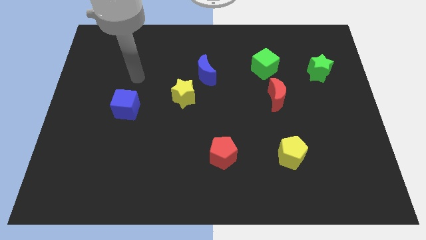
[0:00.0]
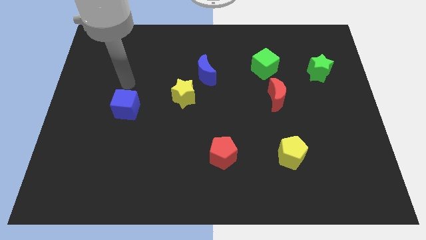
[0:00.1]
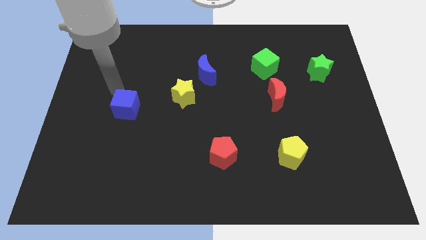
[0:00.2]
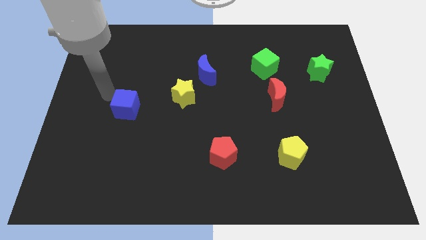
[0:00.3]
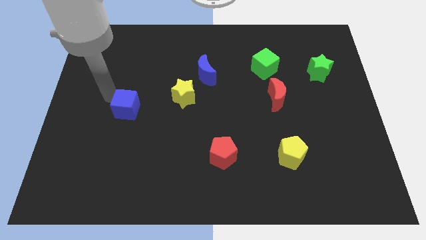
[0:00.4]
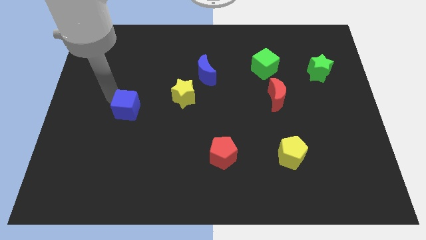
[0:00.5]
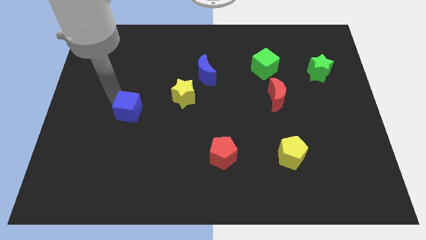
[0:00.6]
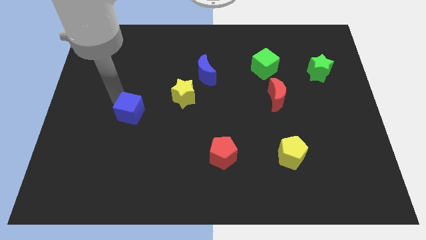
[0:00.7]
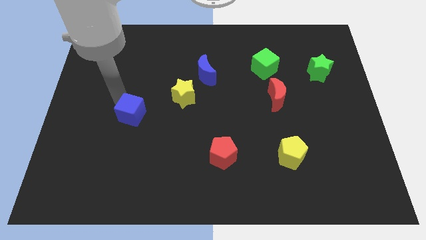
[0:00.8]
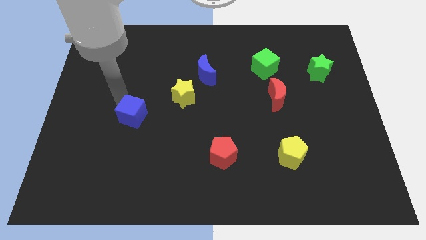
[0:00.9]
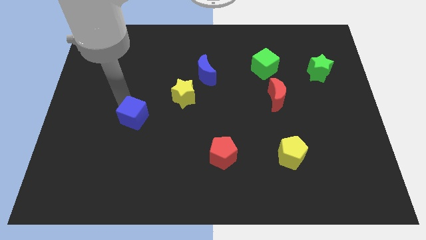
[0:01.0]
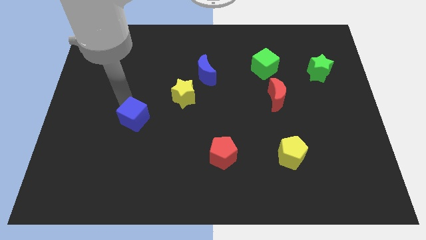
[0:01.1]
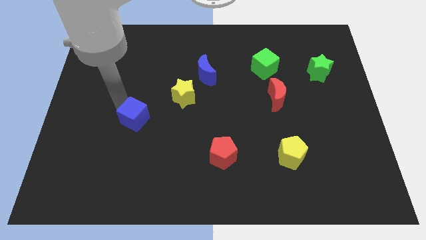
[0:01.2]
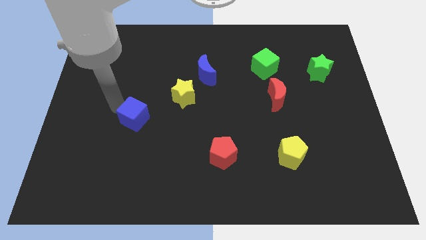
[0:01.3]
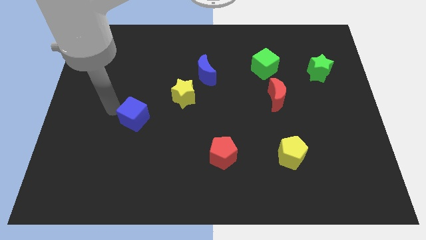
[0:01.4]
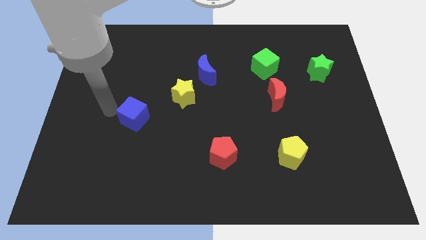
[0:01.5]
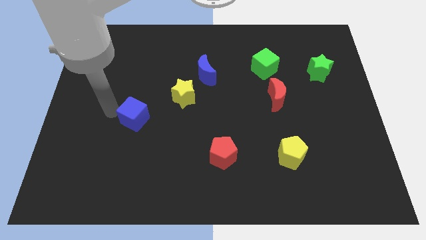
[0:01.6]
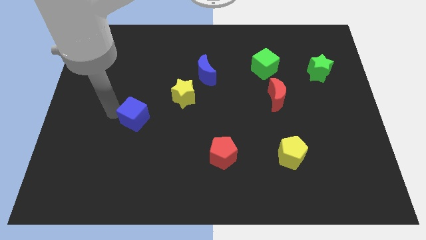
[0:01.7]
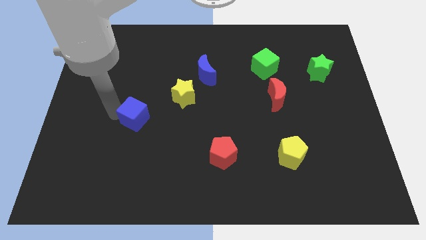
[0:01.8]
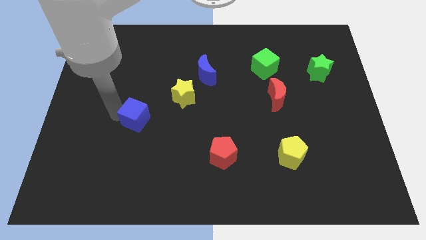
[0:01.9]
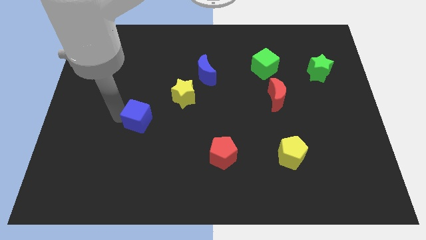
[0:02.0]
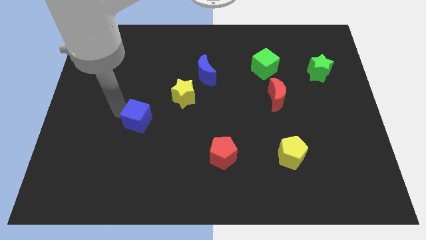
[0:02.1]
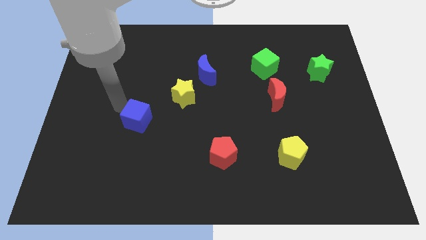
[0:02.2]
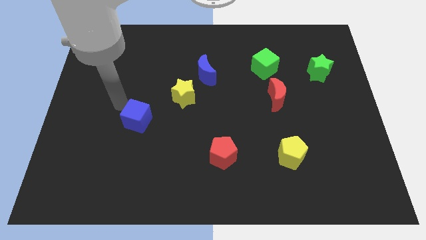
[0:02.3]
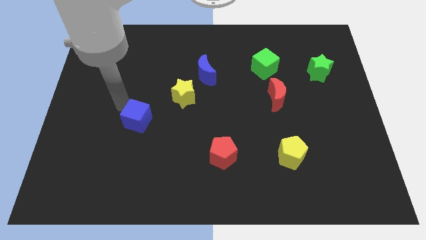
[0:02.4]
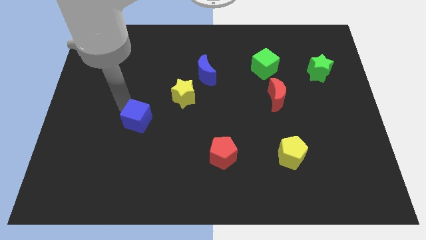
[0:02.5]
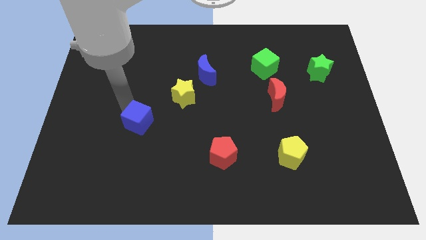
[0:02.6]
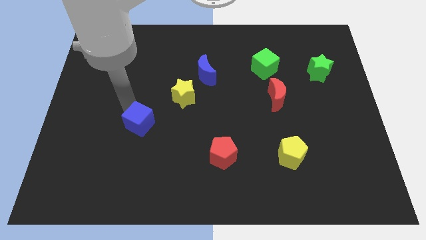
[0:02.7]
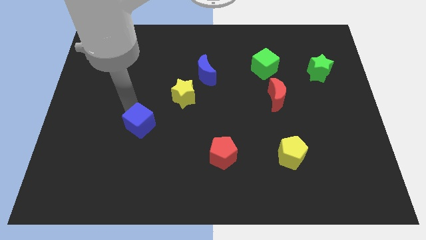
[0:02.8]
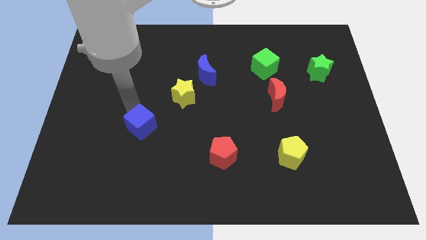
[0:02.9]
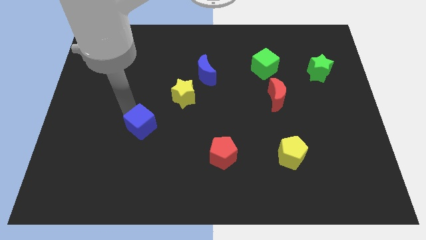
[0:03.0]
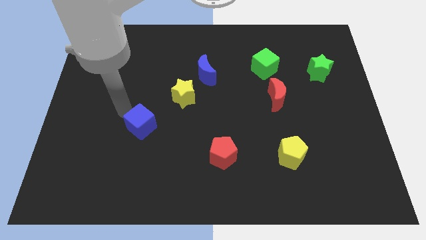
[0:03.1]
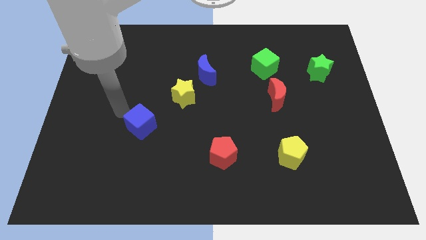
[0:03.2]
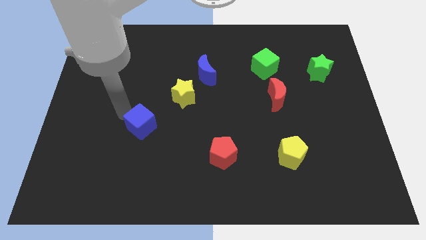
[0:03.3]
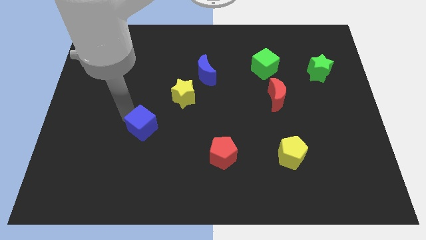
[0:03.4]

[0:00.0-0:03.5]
slightly slide the blue cube down and then to the right

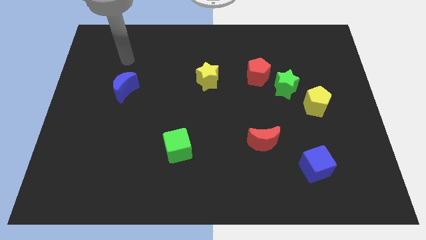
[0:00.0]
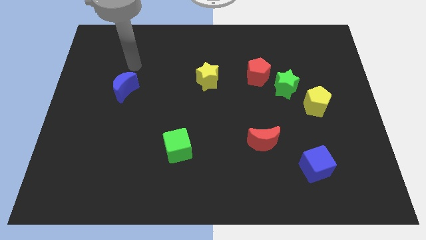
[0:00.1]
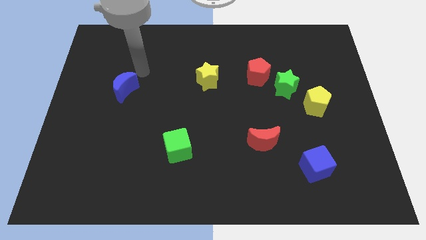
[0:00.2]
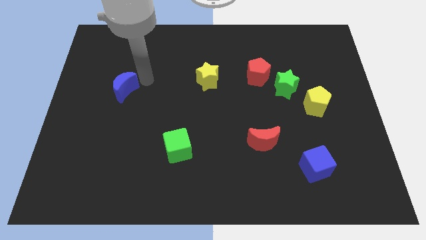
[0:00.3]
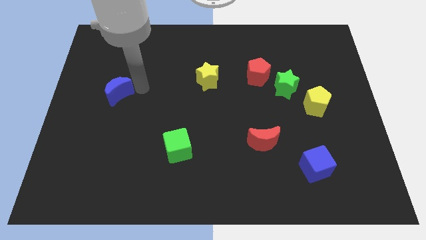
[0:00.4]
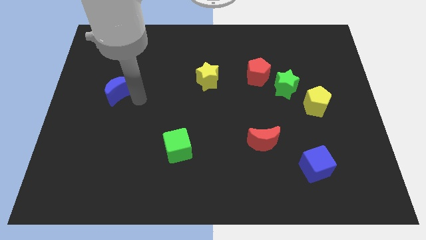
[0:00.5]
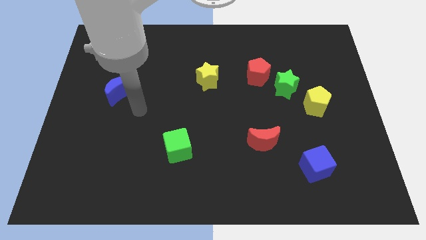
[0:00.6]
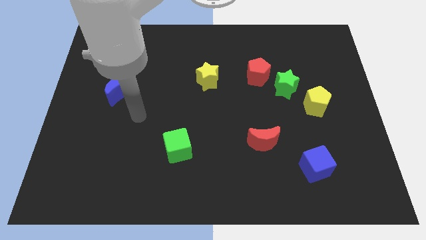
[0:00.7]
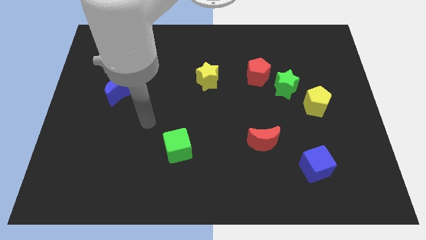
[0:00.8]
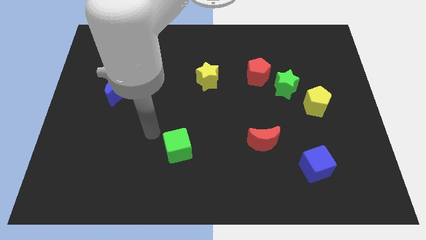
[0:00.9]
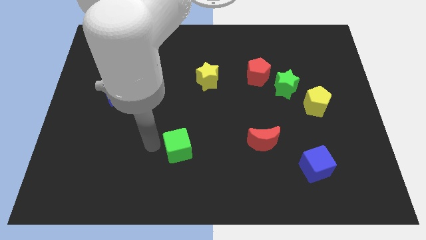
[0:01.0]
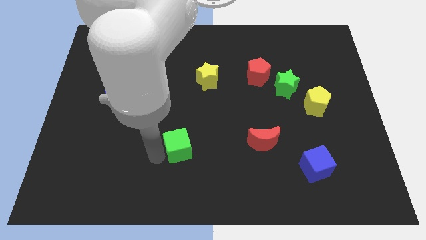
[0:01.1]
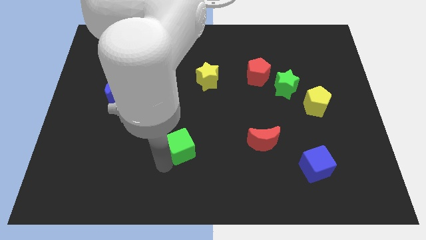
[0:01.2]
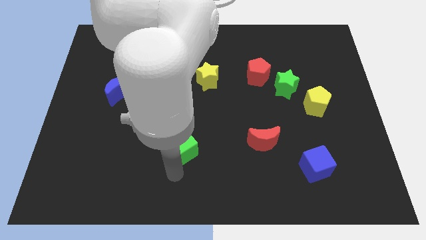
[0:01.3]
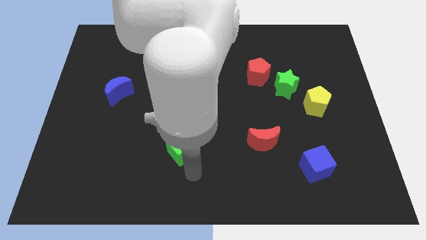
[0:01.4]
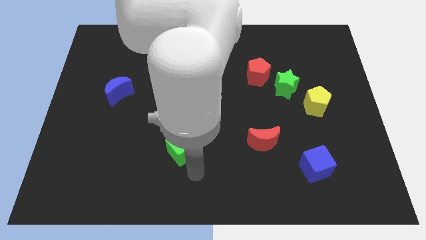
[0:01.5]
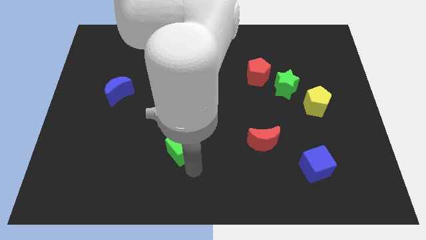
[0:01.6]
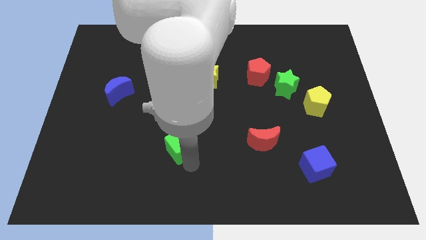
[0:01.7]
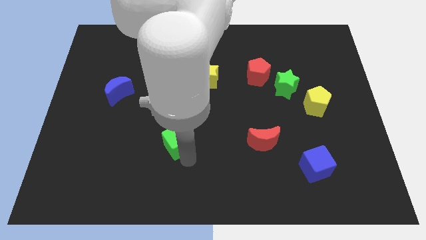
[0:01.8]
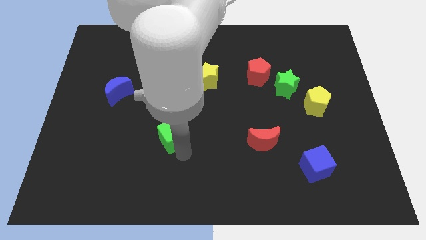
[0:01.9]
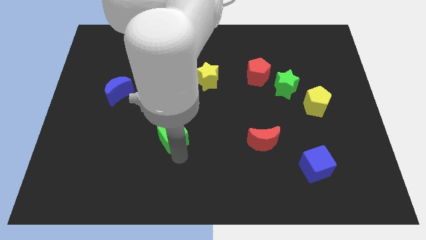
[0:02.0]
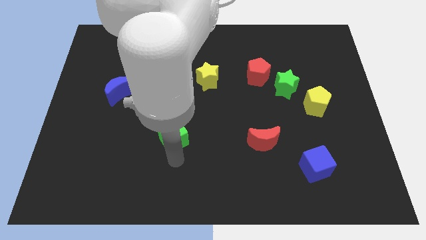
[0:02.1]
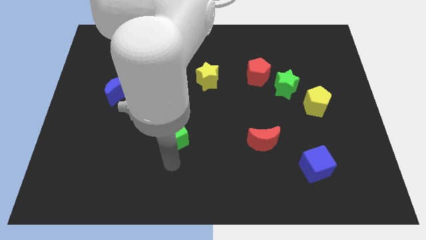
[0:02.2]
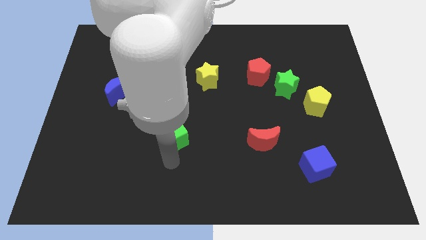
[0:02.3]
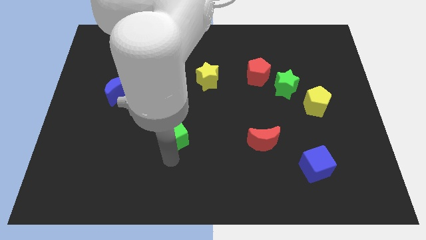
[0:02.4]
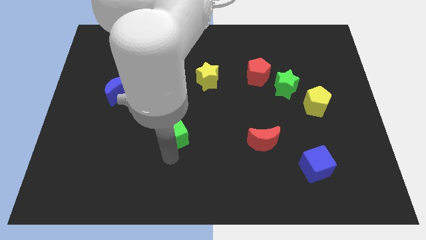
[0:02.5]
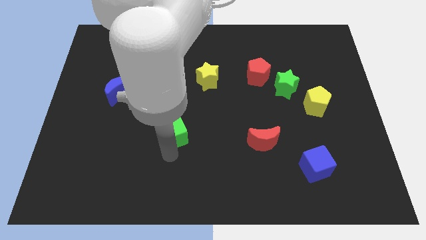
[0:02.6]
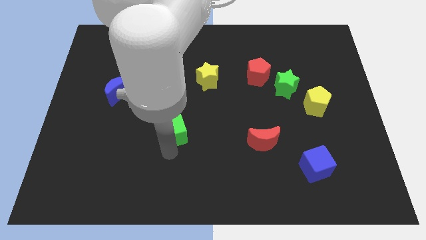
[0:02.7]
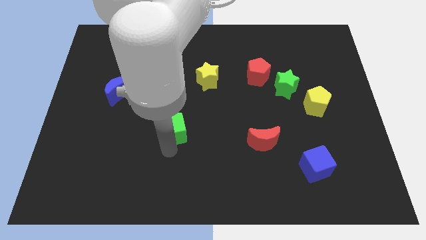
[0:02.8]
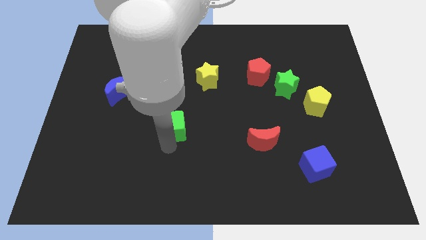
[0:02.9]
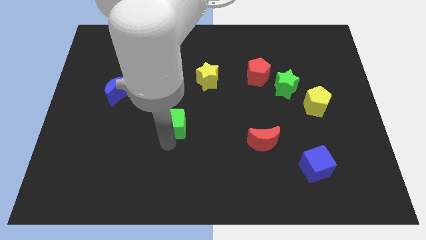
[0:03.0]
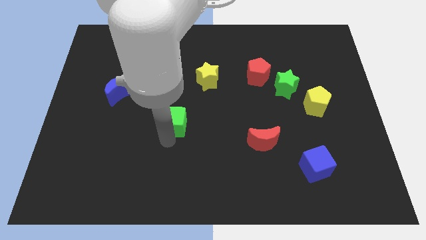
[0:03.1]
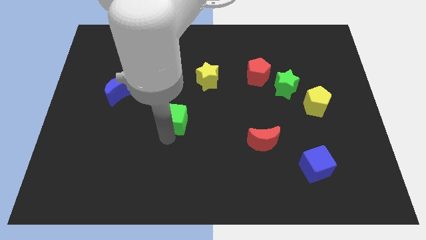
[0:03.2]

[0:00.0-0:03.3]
move the green cube slightly up

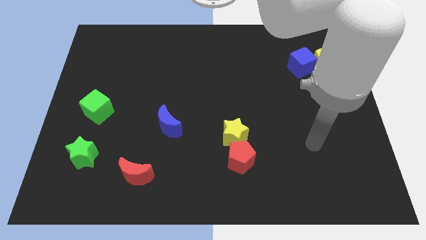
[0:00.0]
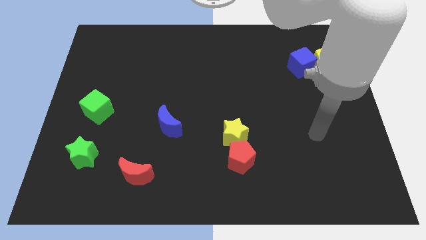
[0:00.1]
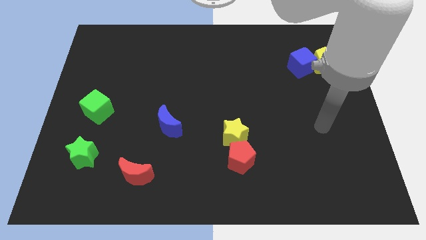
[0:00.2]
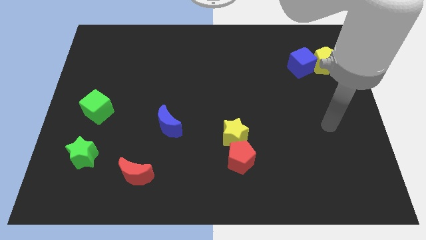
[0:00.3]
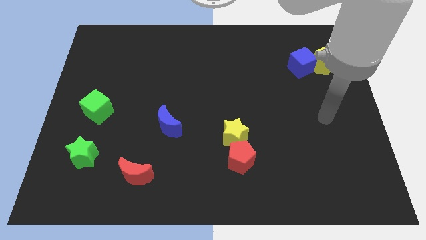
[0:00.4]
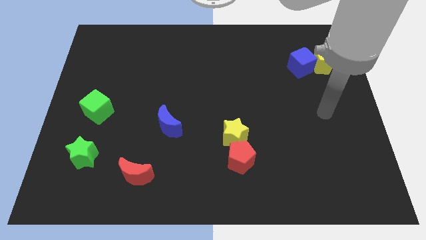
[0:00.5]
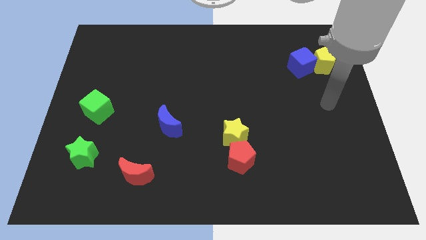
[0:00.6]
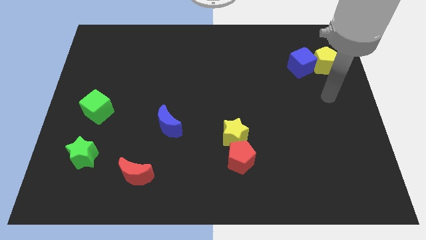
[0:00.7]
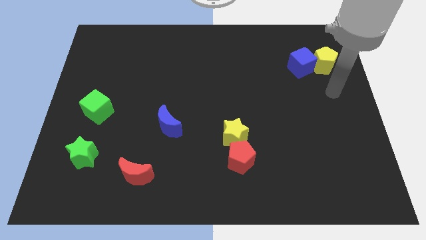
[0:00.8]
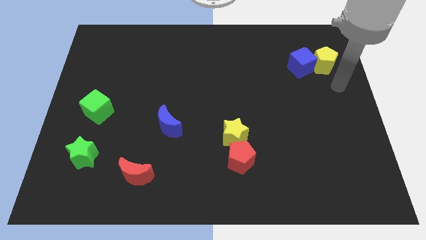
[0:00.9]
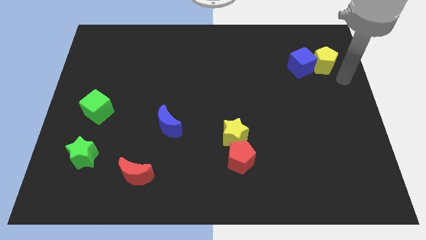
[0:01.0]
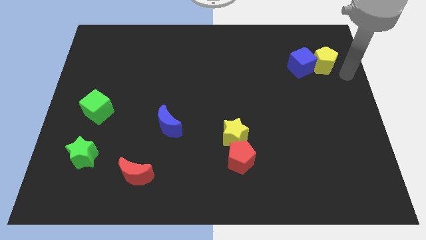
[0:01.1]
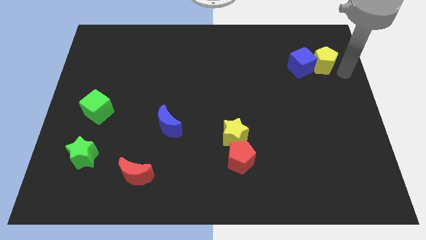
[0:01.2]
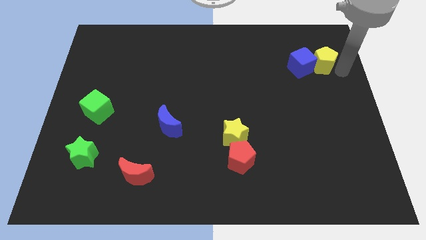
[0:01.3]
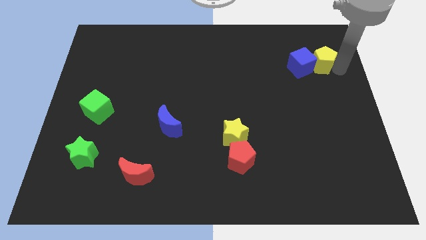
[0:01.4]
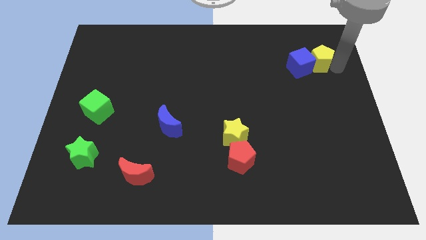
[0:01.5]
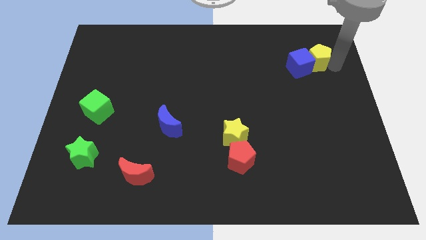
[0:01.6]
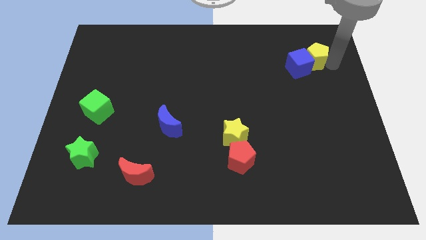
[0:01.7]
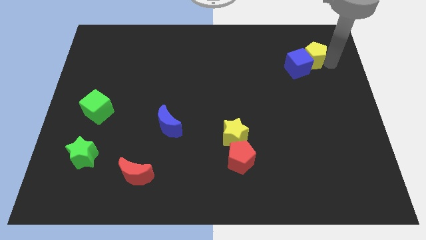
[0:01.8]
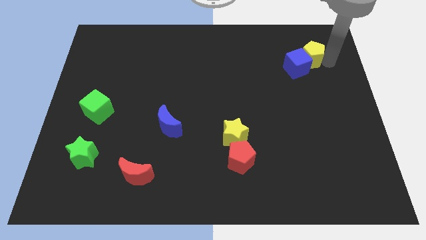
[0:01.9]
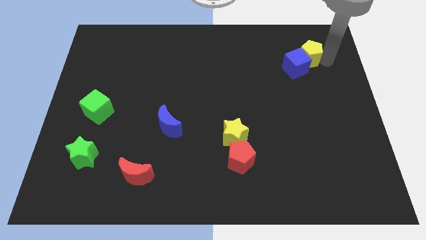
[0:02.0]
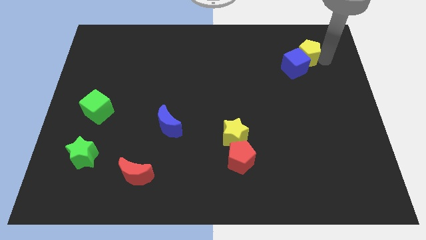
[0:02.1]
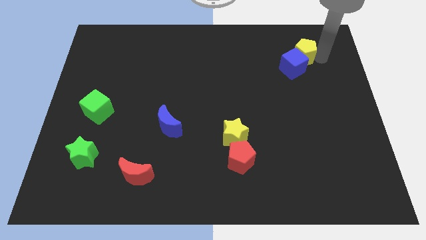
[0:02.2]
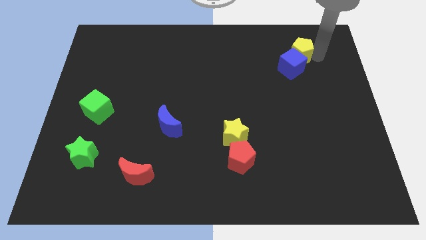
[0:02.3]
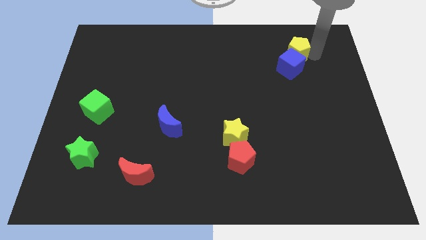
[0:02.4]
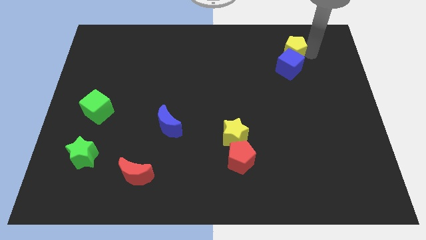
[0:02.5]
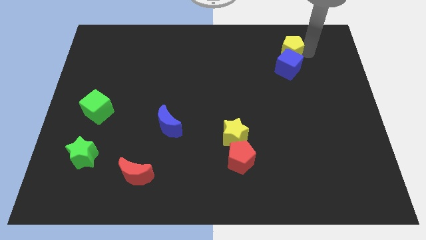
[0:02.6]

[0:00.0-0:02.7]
slightly push the yellow pentagon to the left
